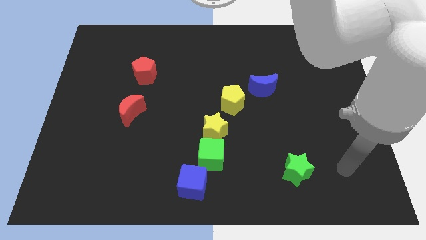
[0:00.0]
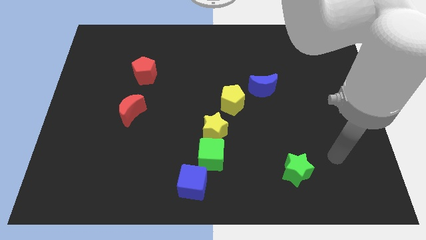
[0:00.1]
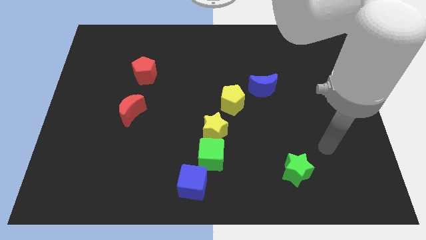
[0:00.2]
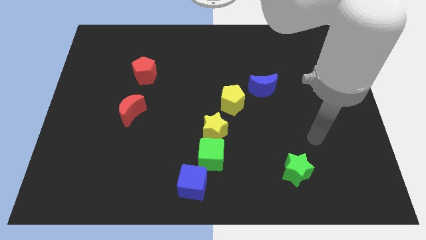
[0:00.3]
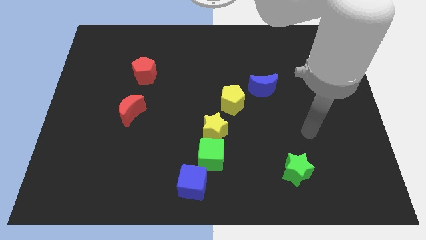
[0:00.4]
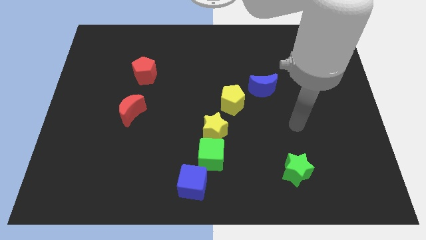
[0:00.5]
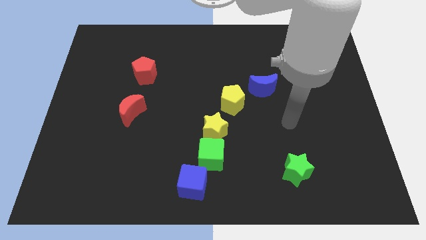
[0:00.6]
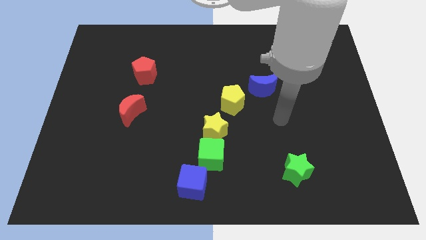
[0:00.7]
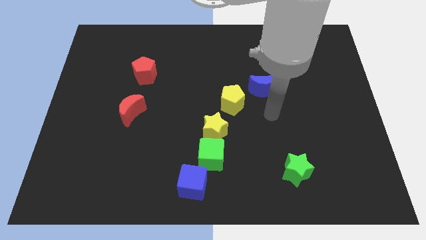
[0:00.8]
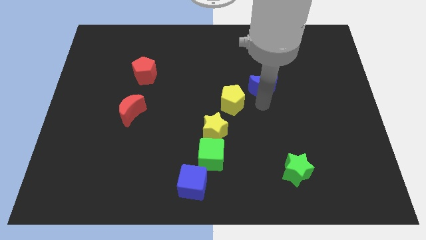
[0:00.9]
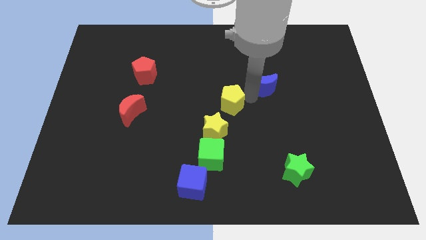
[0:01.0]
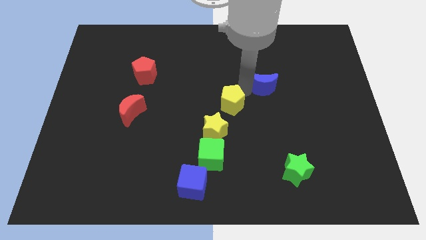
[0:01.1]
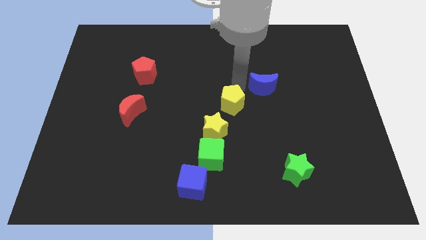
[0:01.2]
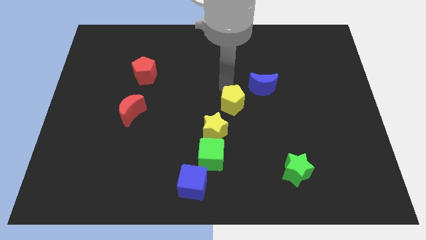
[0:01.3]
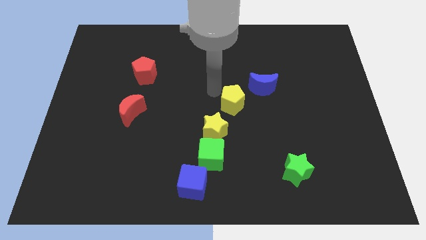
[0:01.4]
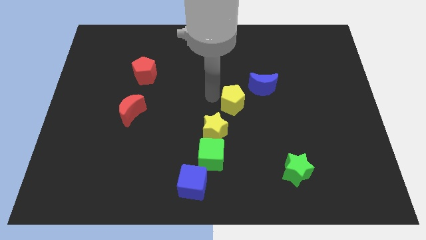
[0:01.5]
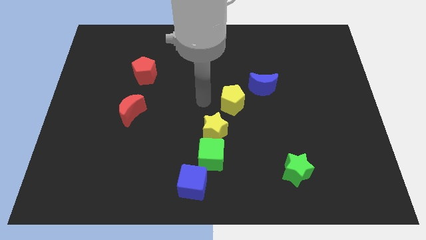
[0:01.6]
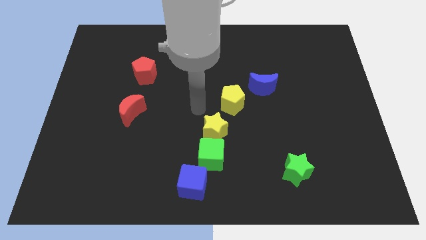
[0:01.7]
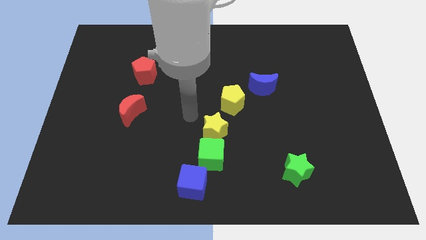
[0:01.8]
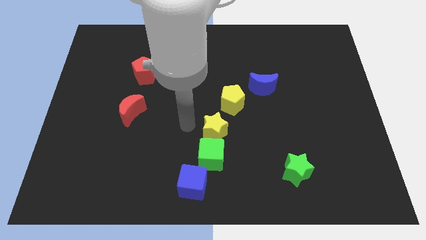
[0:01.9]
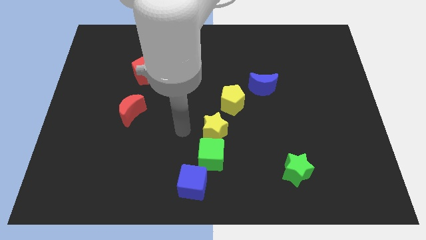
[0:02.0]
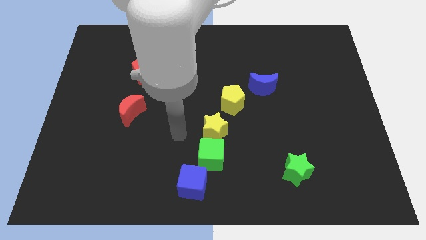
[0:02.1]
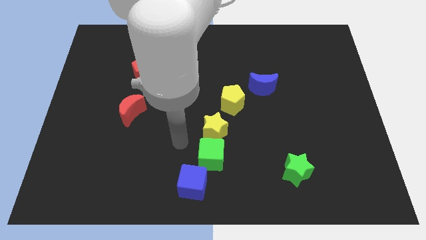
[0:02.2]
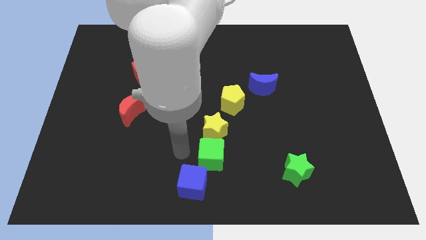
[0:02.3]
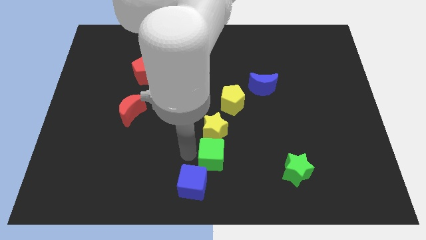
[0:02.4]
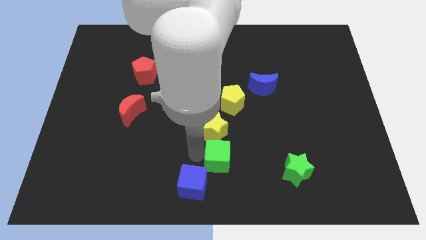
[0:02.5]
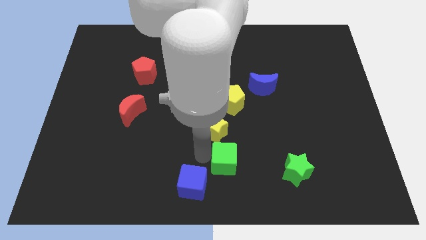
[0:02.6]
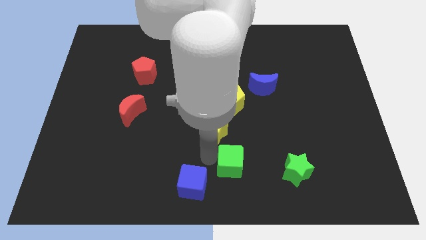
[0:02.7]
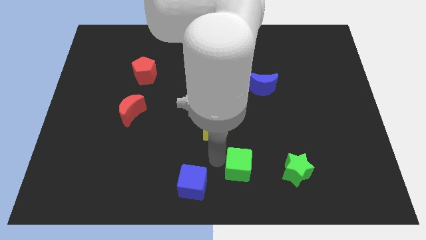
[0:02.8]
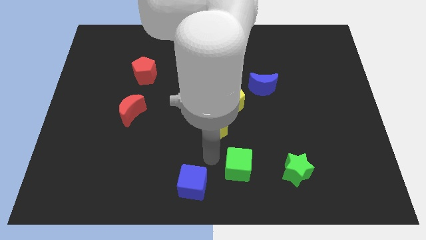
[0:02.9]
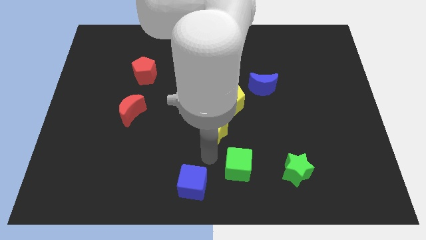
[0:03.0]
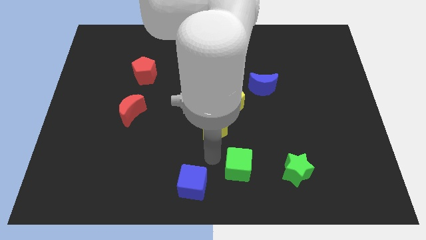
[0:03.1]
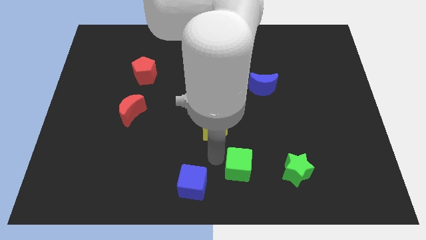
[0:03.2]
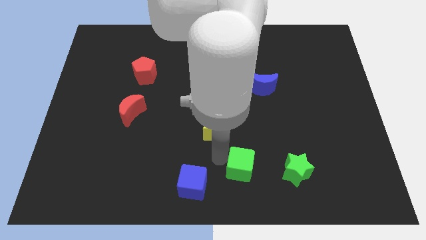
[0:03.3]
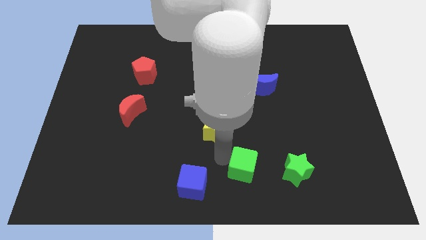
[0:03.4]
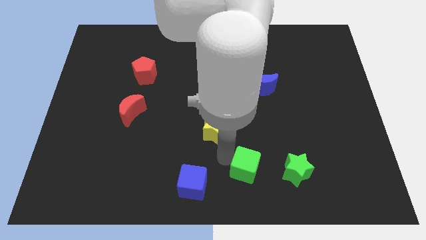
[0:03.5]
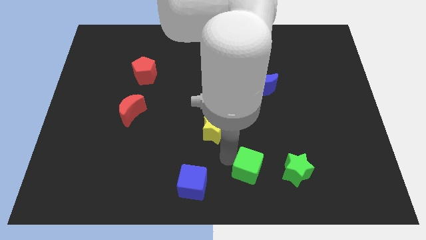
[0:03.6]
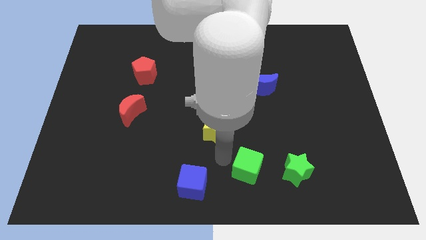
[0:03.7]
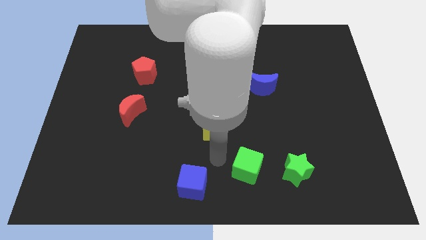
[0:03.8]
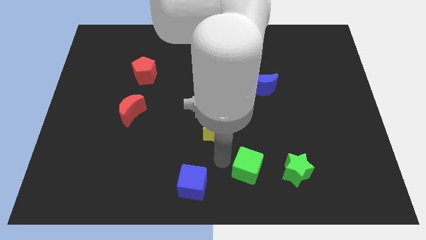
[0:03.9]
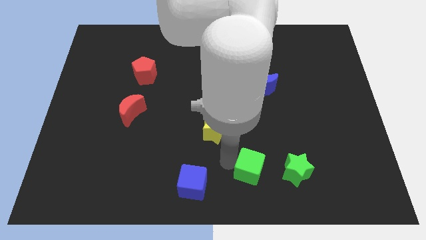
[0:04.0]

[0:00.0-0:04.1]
separate the green cube from the yellow star and blue cube

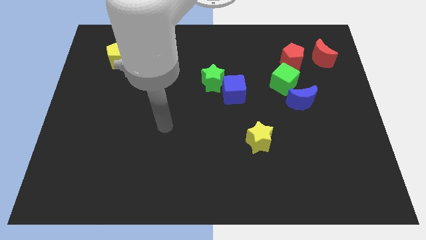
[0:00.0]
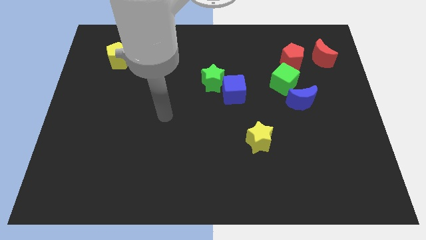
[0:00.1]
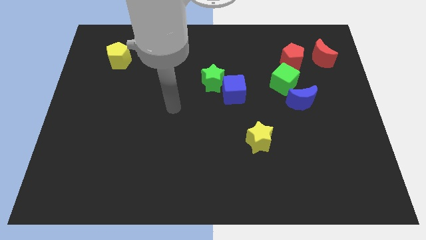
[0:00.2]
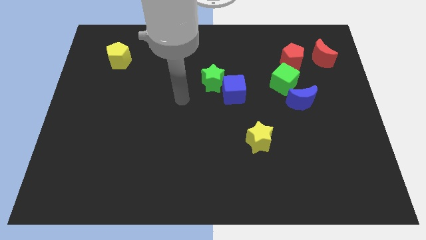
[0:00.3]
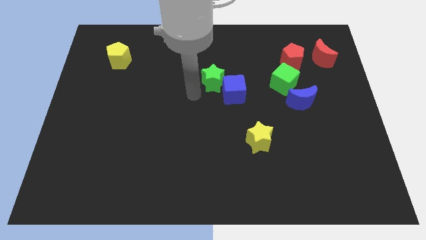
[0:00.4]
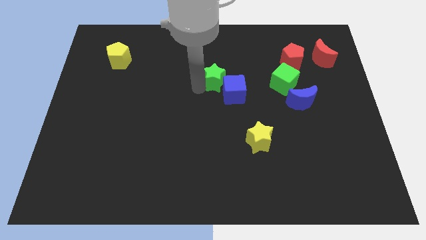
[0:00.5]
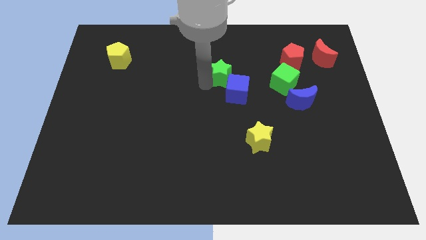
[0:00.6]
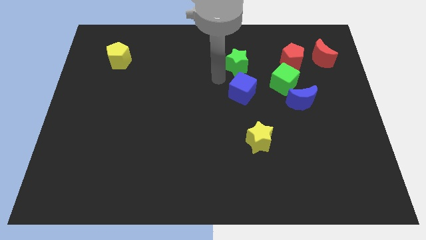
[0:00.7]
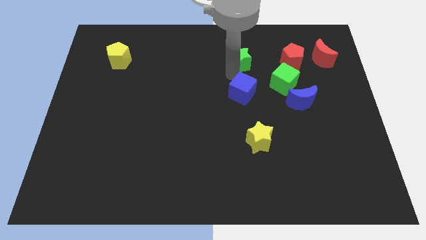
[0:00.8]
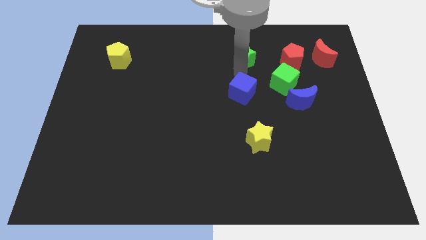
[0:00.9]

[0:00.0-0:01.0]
separate the blue cube from the green star

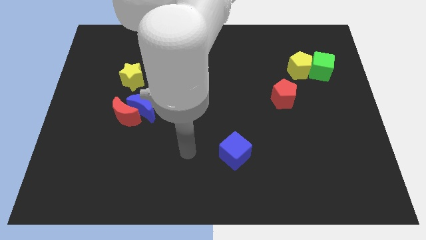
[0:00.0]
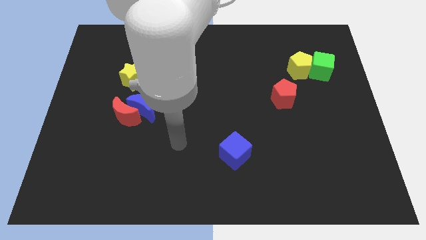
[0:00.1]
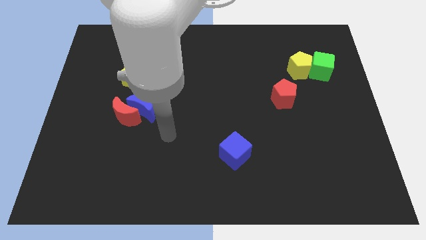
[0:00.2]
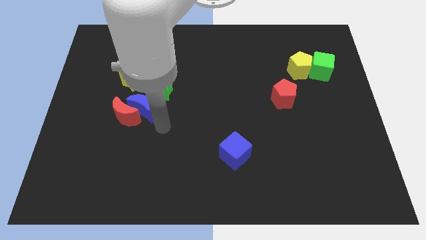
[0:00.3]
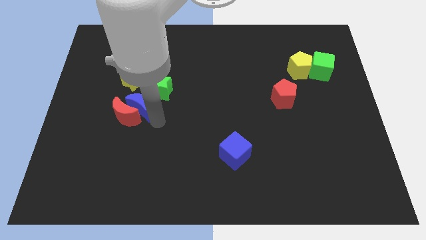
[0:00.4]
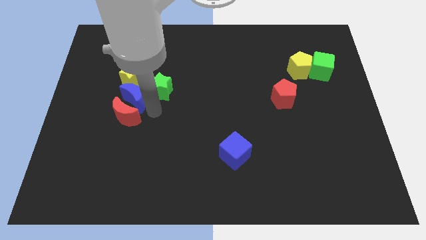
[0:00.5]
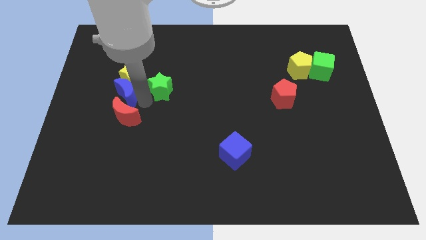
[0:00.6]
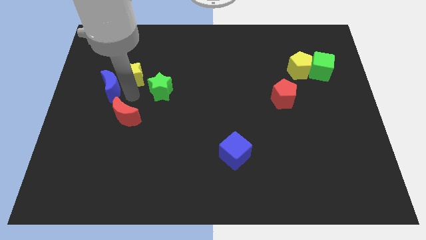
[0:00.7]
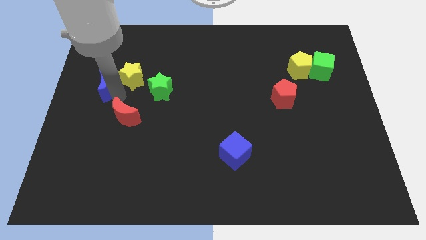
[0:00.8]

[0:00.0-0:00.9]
pull the red moon apart from the blue moon

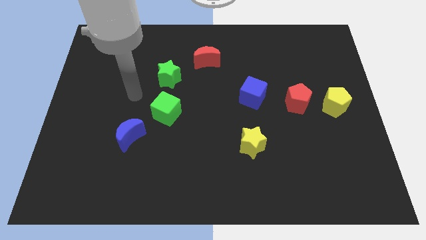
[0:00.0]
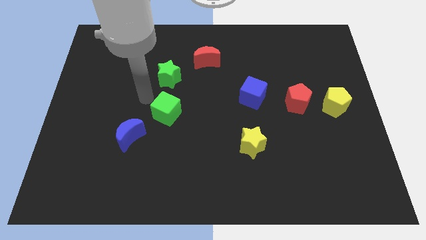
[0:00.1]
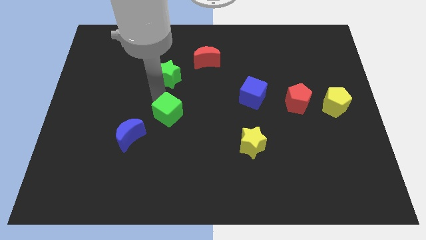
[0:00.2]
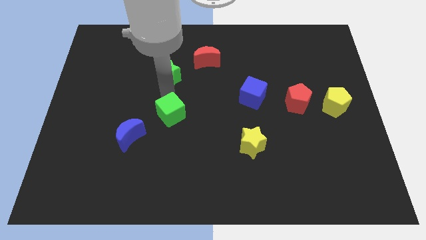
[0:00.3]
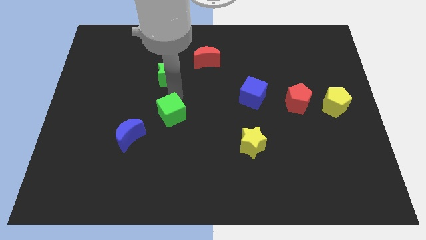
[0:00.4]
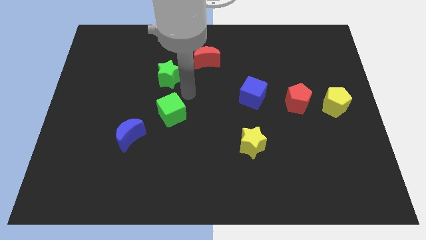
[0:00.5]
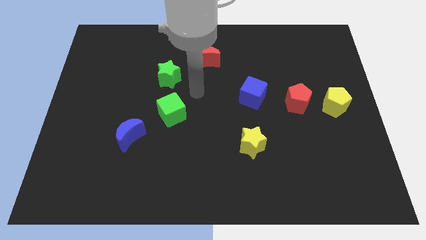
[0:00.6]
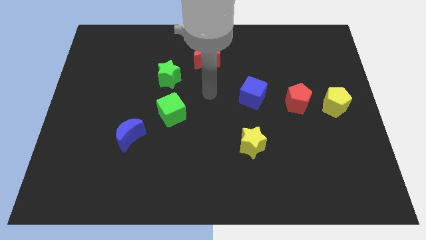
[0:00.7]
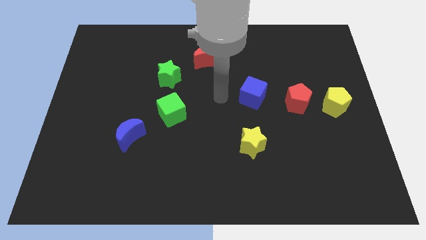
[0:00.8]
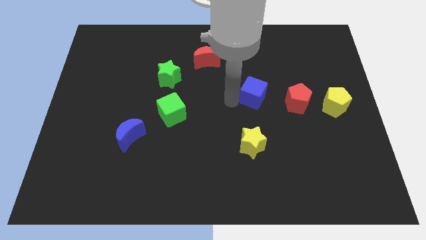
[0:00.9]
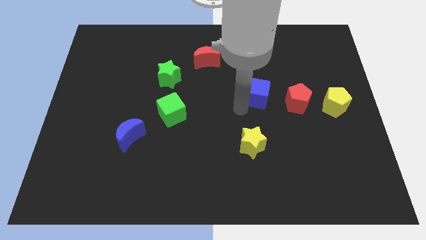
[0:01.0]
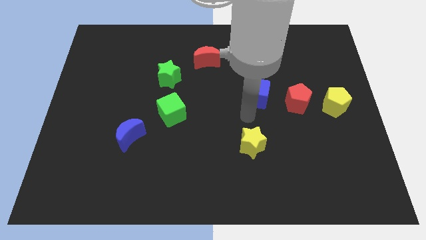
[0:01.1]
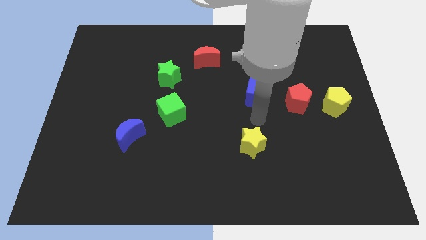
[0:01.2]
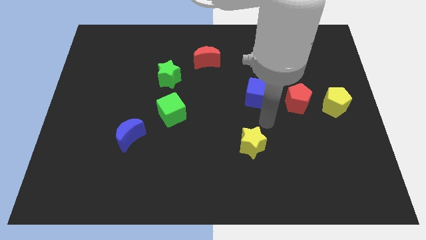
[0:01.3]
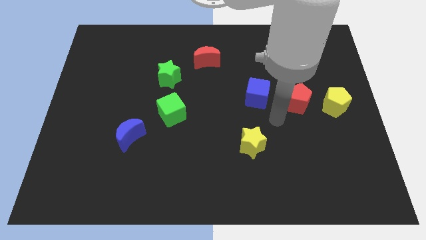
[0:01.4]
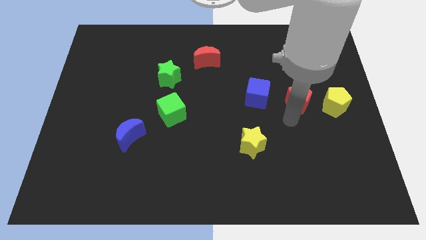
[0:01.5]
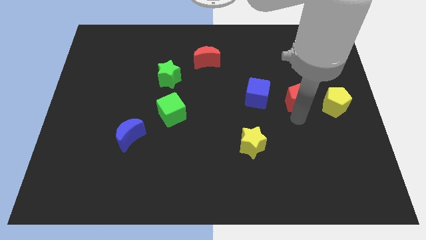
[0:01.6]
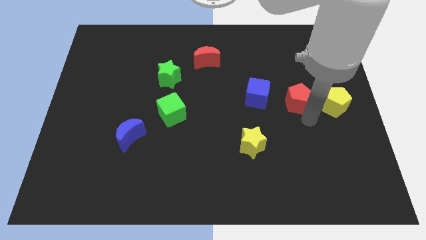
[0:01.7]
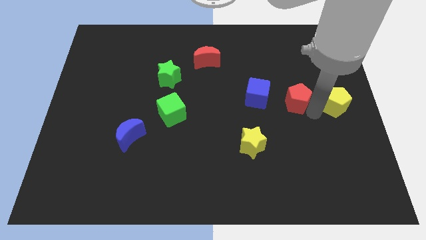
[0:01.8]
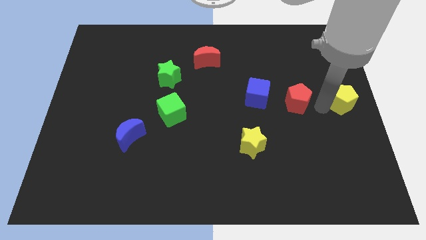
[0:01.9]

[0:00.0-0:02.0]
pull the red pentagon apart from the yellow pentagon

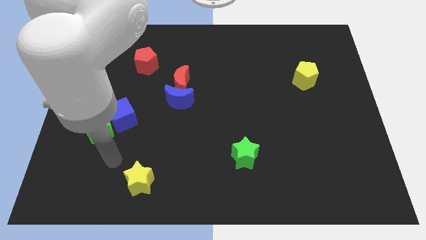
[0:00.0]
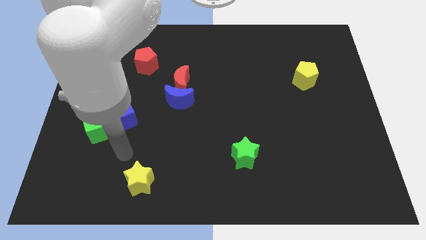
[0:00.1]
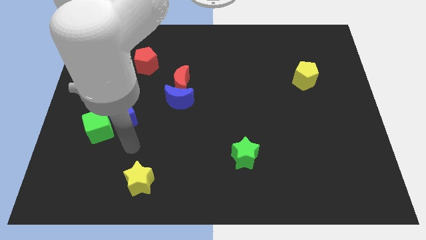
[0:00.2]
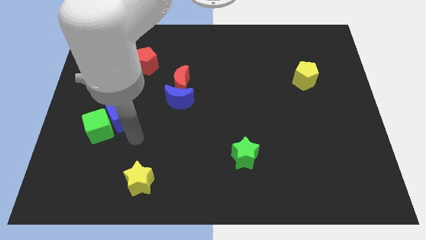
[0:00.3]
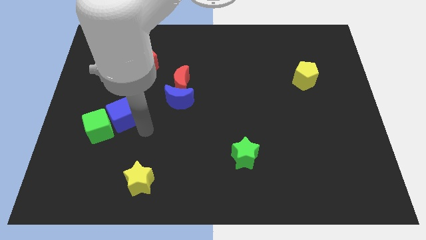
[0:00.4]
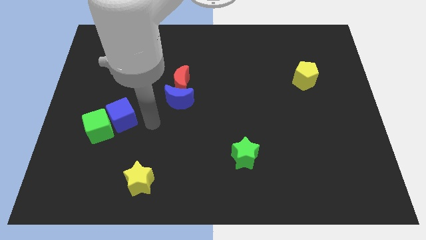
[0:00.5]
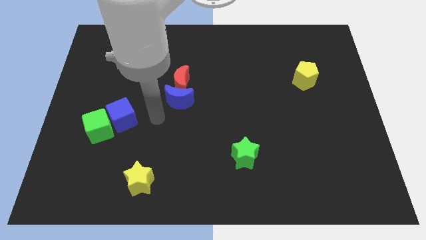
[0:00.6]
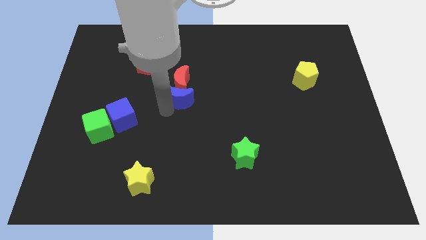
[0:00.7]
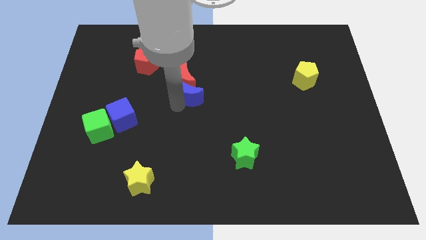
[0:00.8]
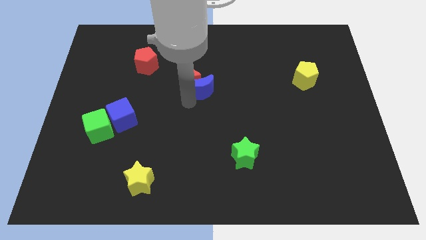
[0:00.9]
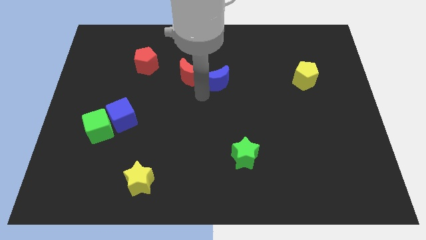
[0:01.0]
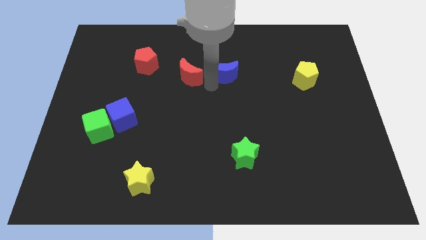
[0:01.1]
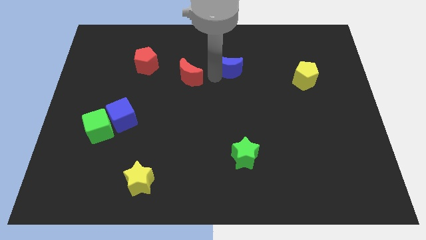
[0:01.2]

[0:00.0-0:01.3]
separate the red moon from the blue moon
